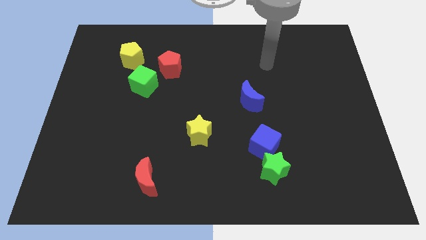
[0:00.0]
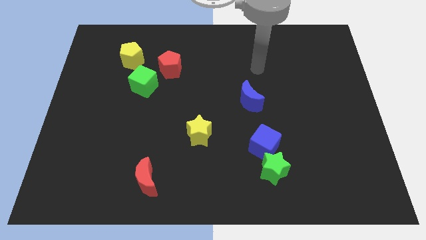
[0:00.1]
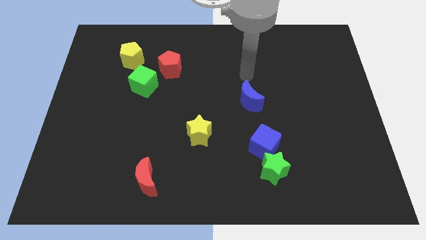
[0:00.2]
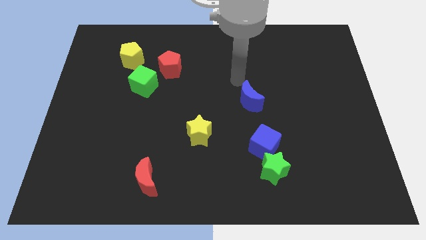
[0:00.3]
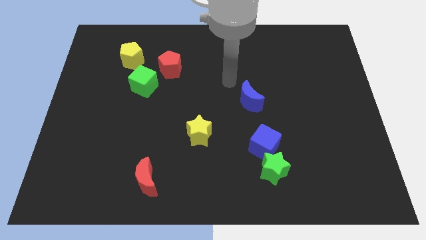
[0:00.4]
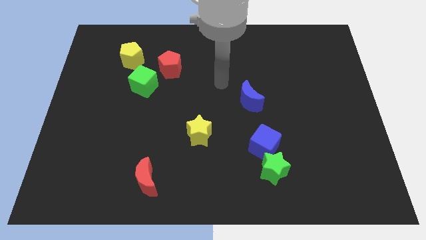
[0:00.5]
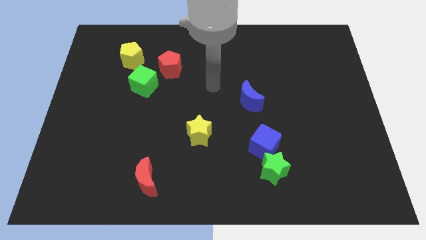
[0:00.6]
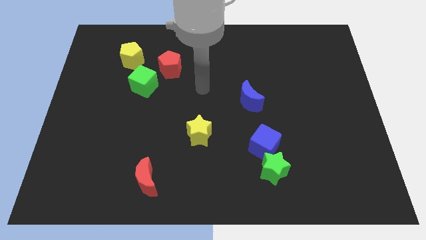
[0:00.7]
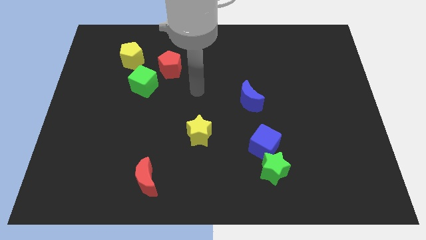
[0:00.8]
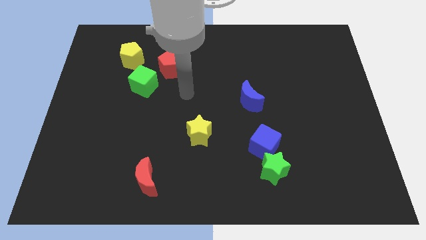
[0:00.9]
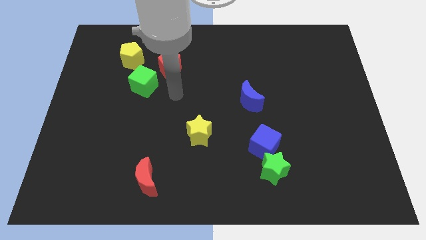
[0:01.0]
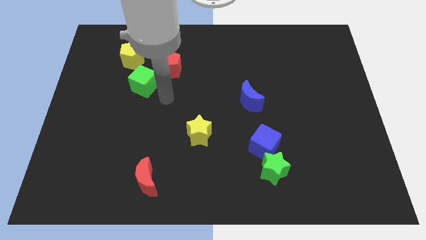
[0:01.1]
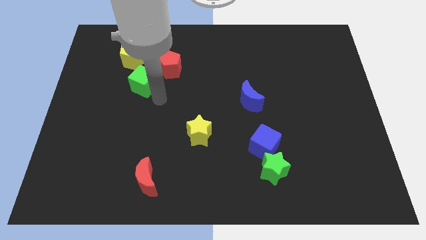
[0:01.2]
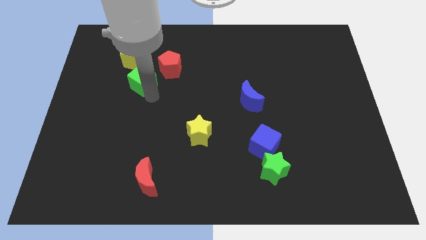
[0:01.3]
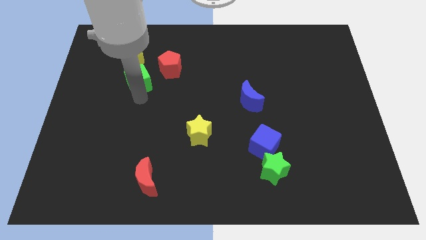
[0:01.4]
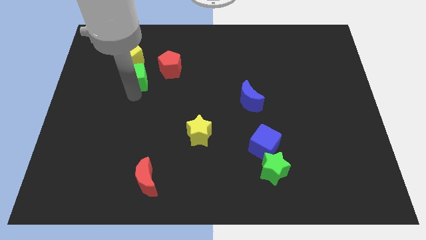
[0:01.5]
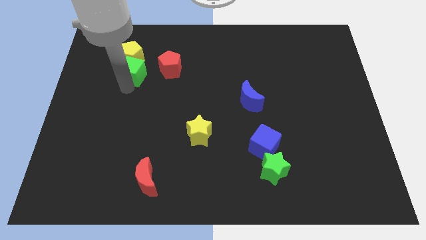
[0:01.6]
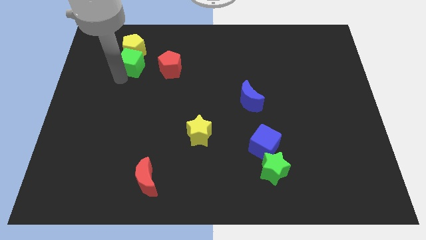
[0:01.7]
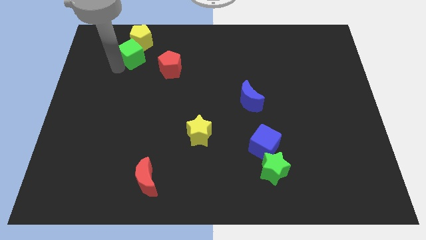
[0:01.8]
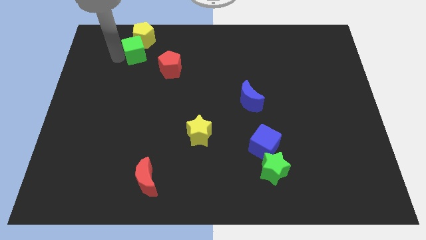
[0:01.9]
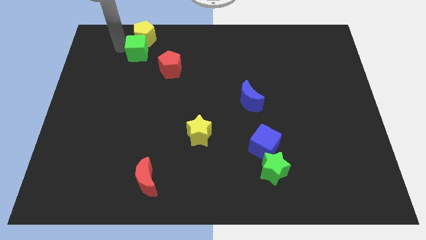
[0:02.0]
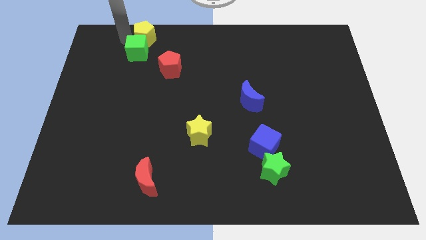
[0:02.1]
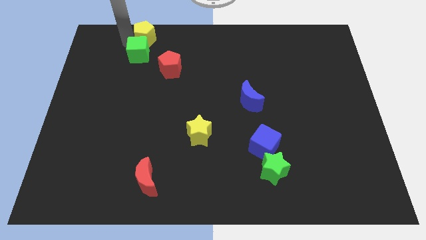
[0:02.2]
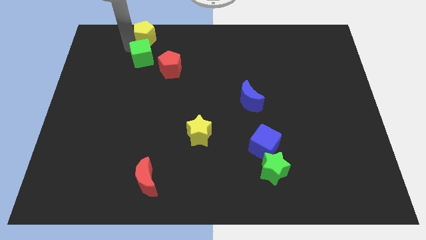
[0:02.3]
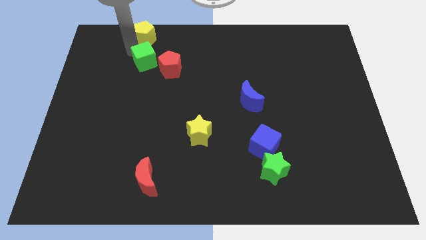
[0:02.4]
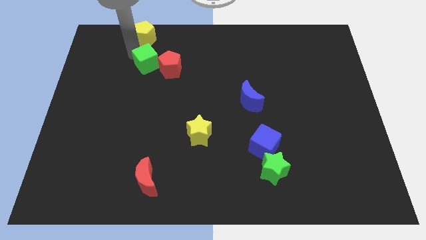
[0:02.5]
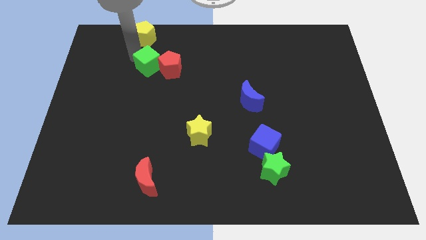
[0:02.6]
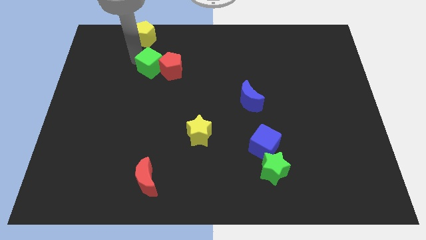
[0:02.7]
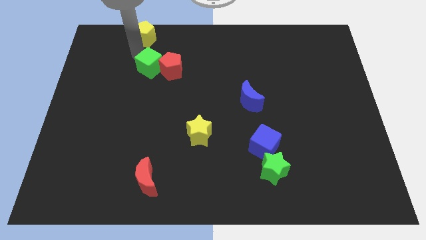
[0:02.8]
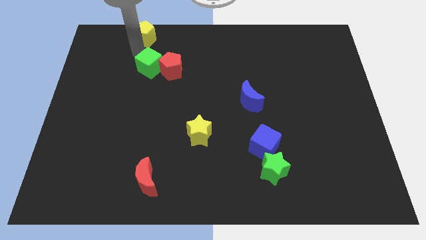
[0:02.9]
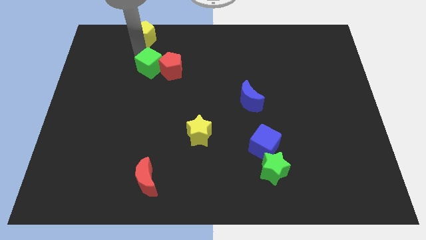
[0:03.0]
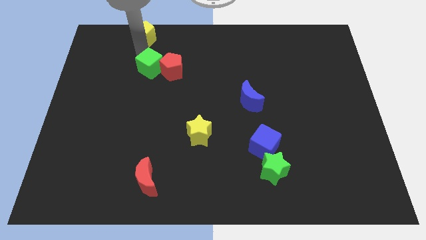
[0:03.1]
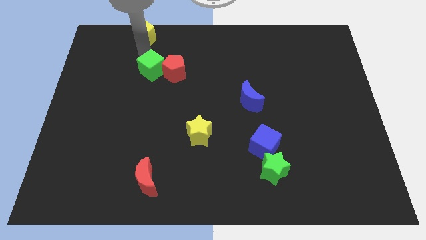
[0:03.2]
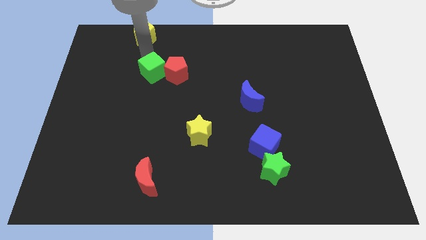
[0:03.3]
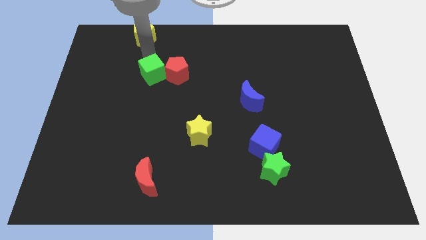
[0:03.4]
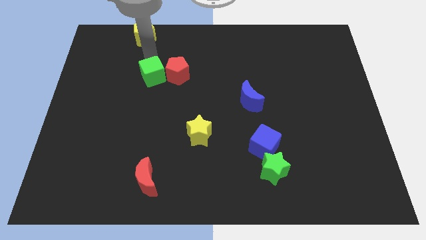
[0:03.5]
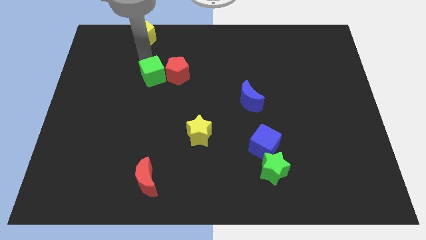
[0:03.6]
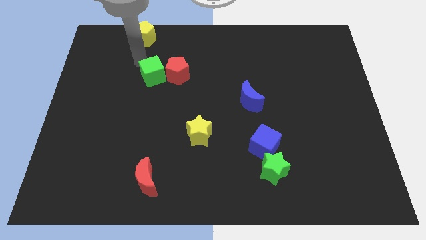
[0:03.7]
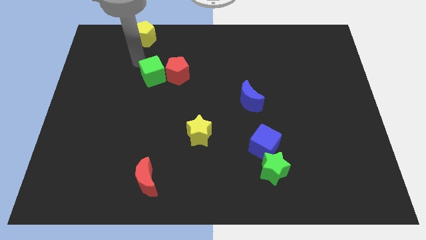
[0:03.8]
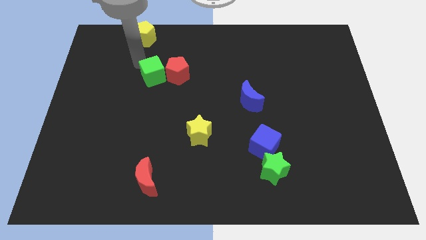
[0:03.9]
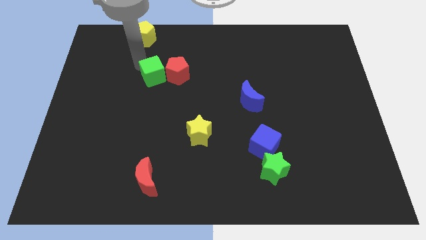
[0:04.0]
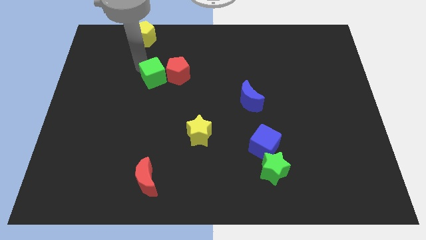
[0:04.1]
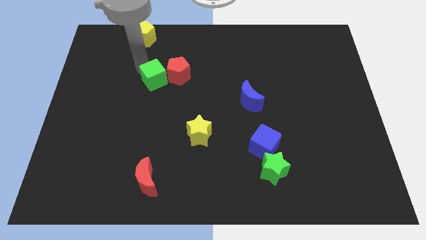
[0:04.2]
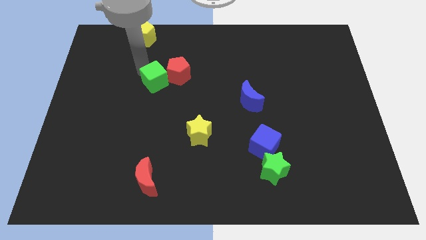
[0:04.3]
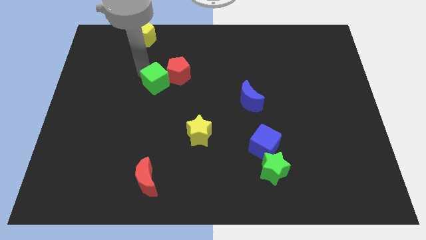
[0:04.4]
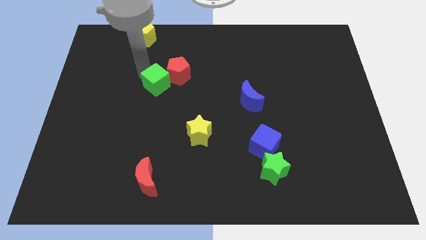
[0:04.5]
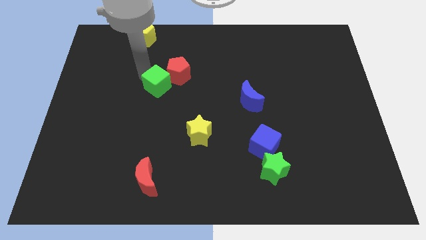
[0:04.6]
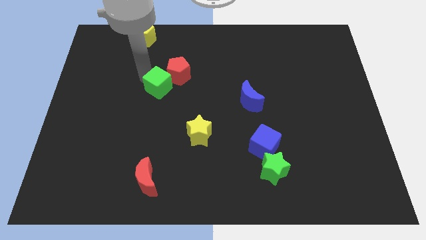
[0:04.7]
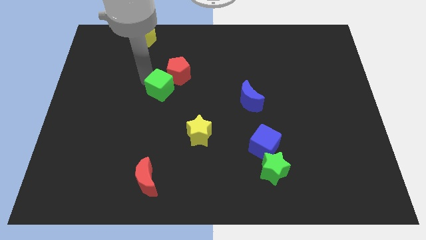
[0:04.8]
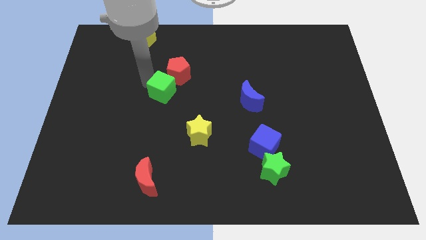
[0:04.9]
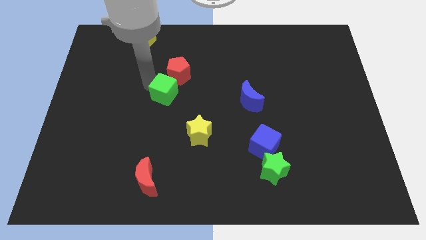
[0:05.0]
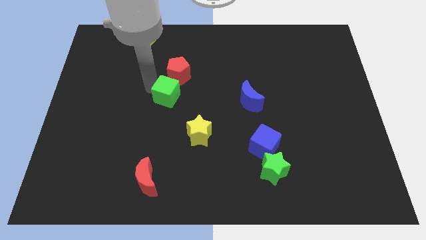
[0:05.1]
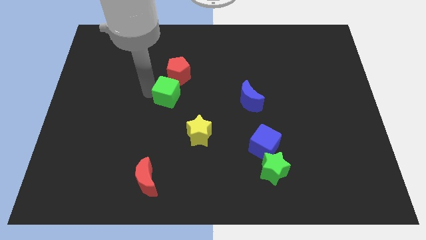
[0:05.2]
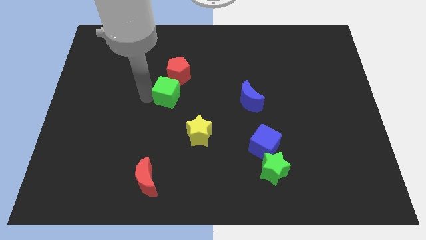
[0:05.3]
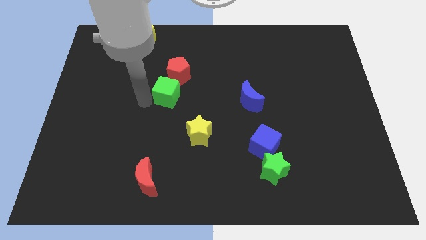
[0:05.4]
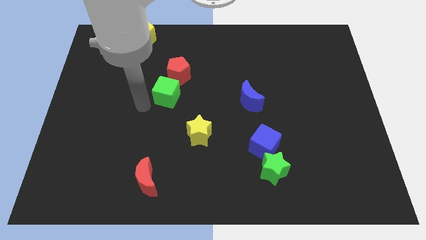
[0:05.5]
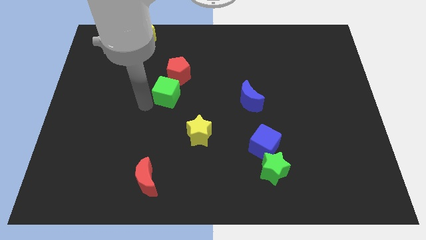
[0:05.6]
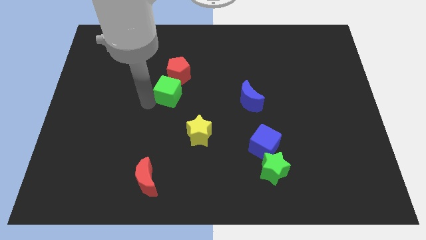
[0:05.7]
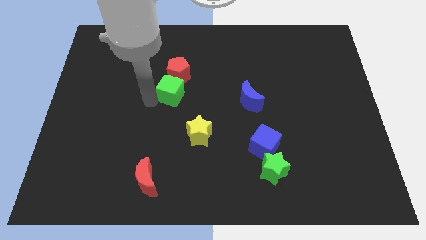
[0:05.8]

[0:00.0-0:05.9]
slide the green cube a little bit to the right

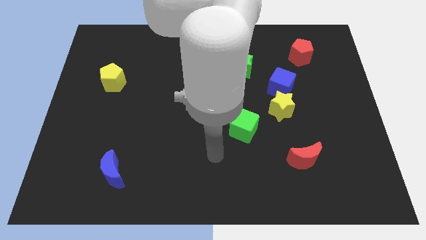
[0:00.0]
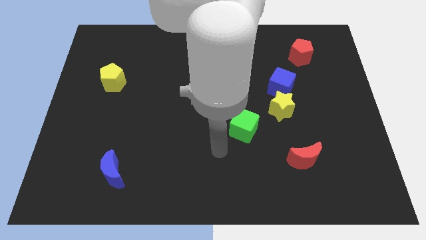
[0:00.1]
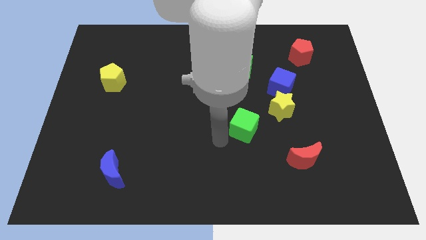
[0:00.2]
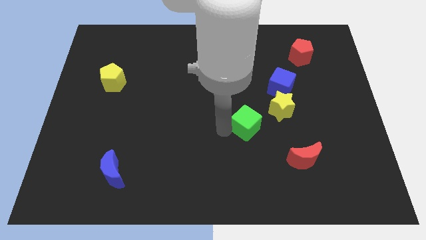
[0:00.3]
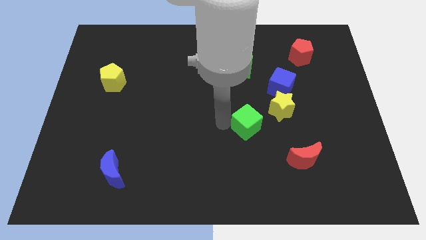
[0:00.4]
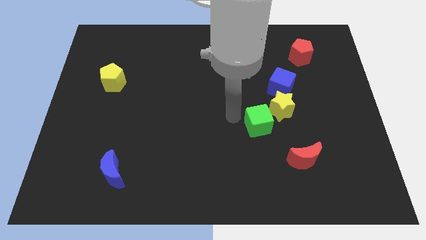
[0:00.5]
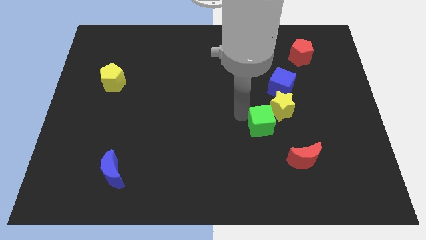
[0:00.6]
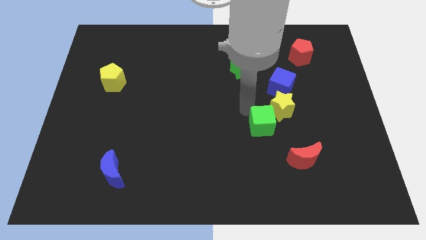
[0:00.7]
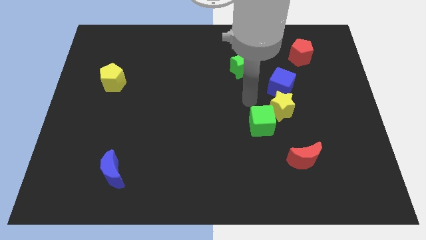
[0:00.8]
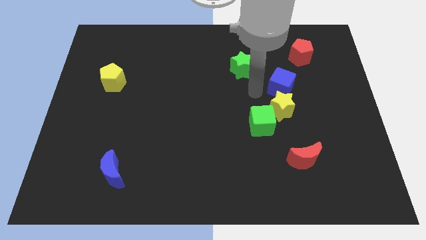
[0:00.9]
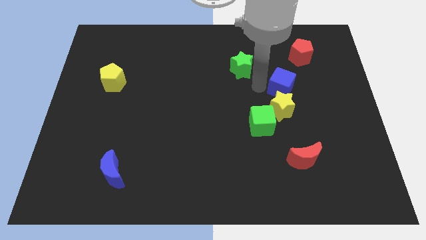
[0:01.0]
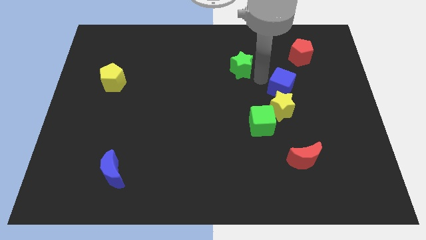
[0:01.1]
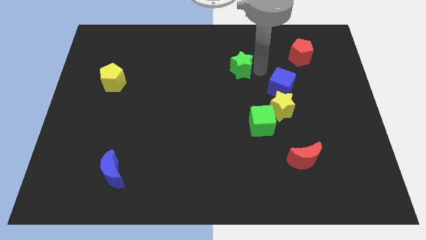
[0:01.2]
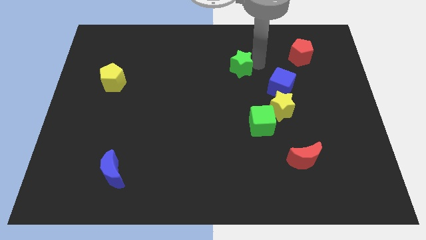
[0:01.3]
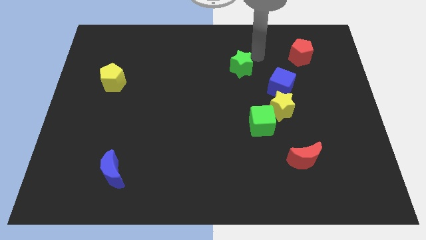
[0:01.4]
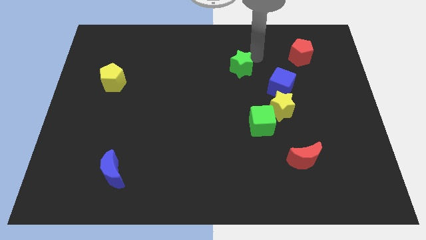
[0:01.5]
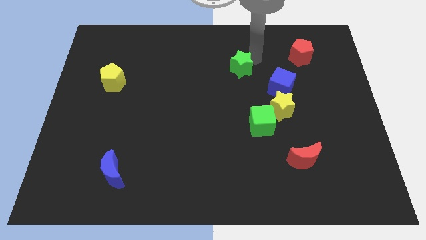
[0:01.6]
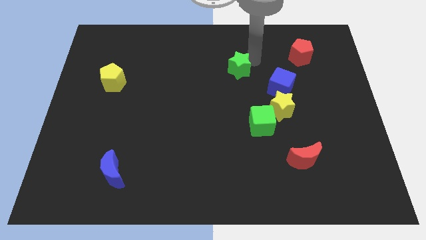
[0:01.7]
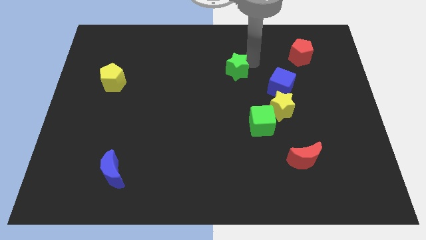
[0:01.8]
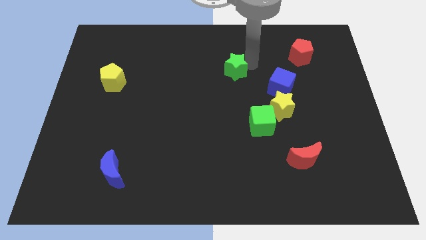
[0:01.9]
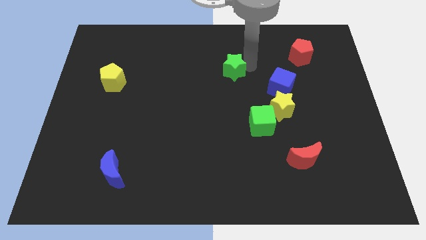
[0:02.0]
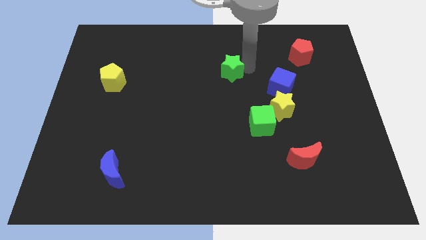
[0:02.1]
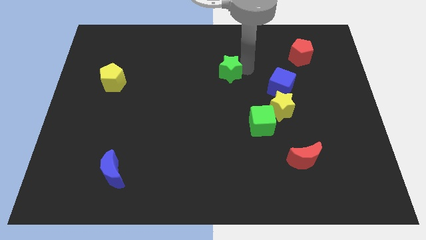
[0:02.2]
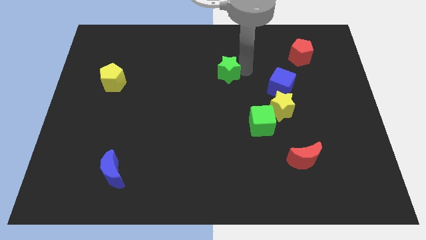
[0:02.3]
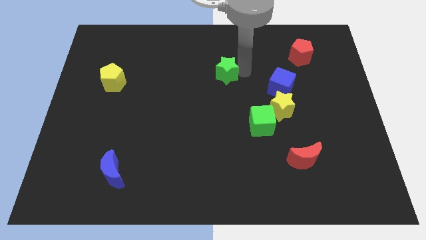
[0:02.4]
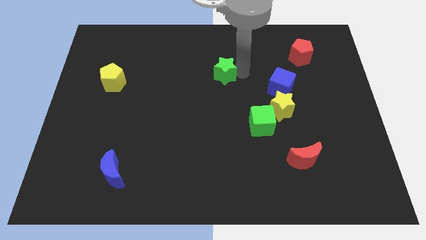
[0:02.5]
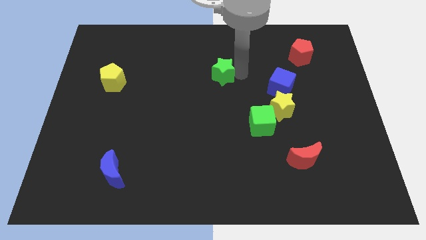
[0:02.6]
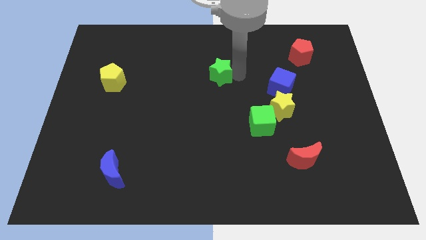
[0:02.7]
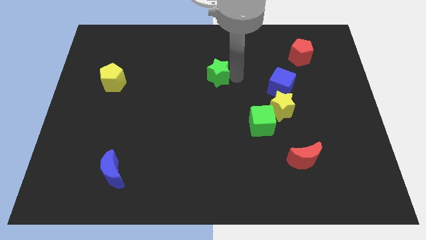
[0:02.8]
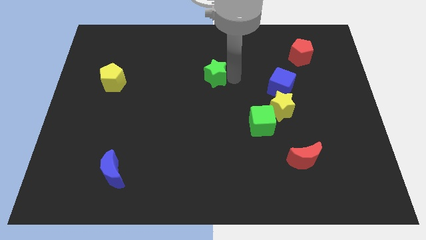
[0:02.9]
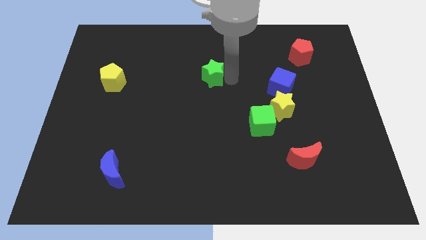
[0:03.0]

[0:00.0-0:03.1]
slightly move the green star down and then left
